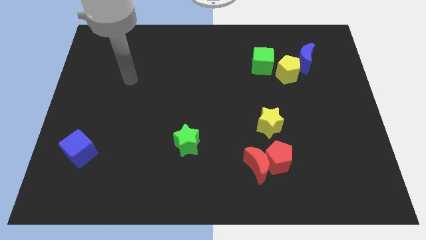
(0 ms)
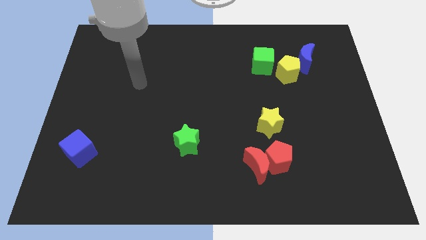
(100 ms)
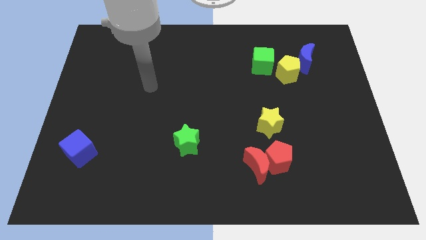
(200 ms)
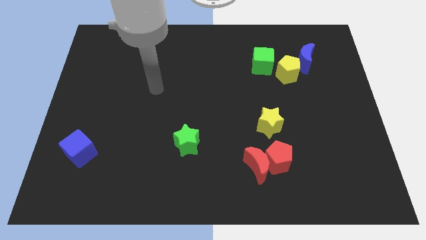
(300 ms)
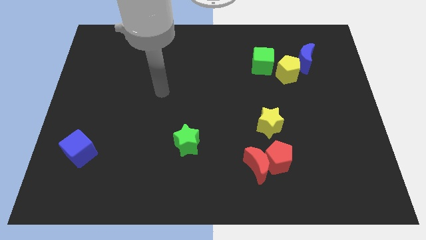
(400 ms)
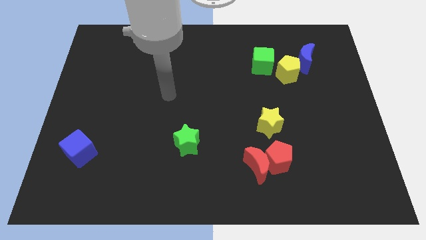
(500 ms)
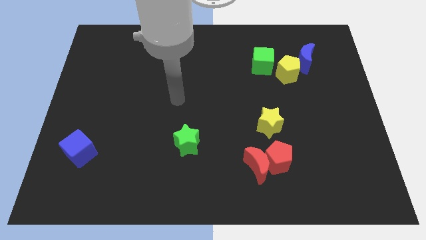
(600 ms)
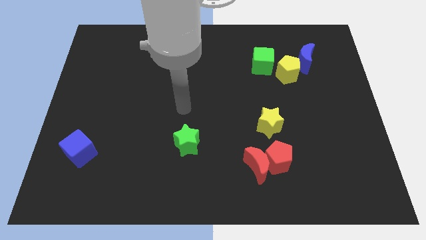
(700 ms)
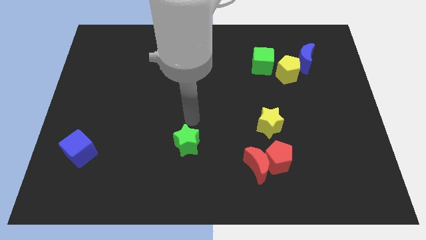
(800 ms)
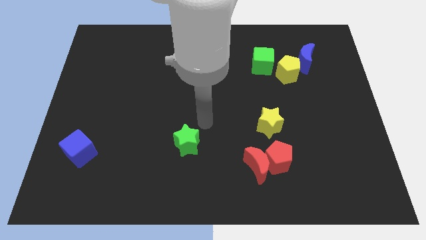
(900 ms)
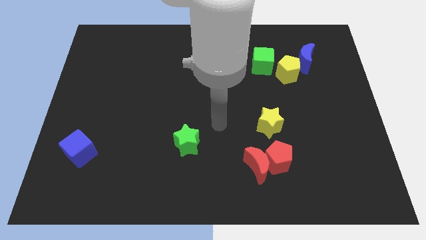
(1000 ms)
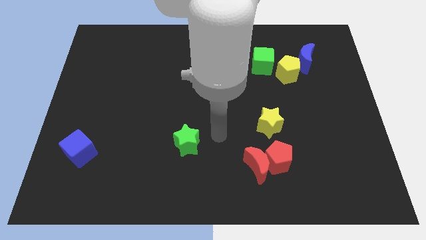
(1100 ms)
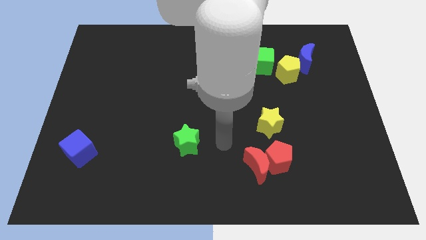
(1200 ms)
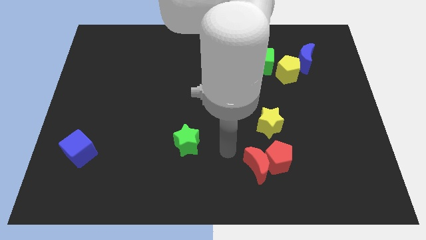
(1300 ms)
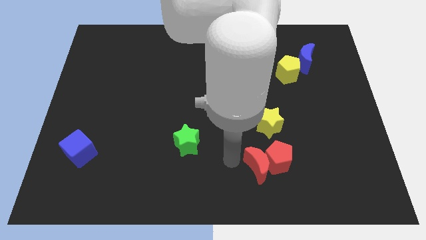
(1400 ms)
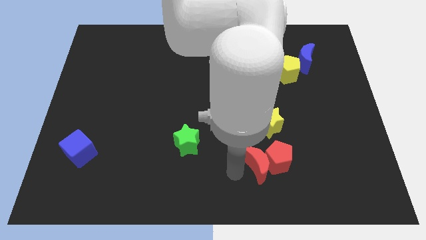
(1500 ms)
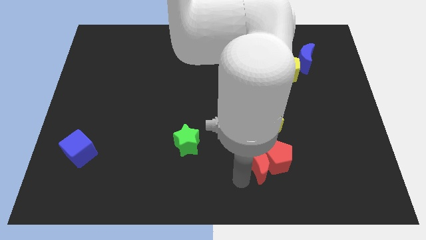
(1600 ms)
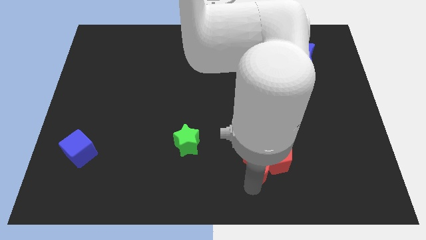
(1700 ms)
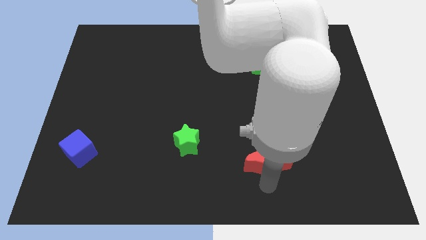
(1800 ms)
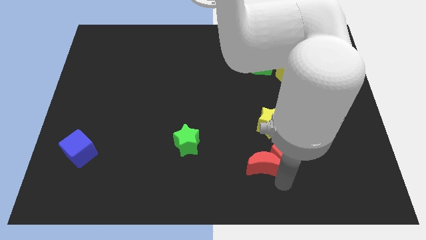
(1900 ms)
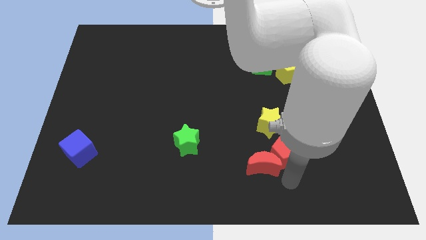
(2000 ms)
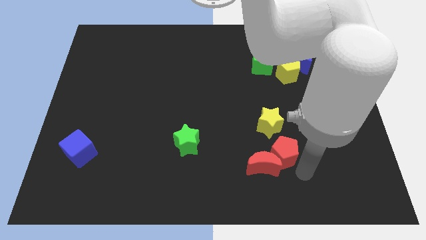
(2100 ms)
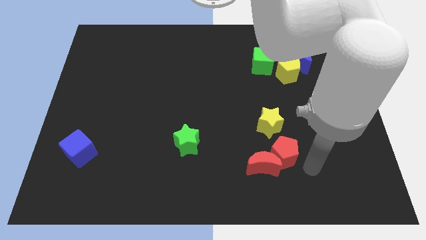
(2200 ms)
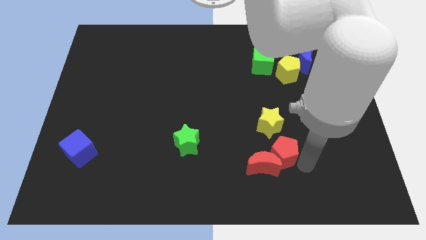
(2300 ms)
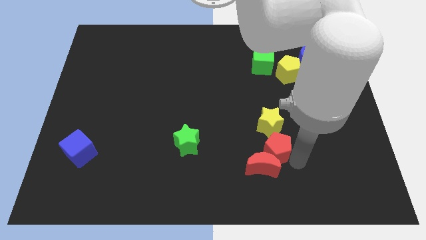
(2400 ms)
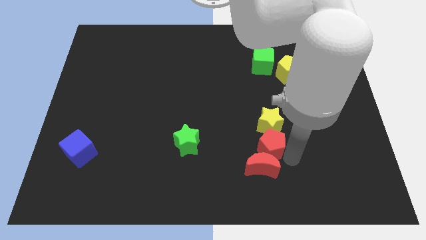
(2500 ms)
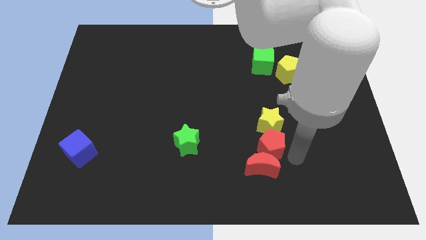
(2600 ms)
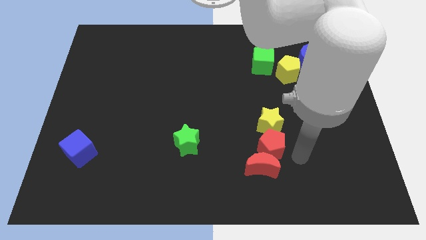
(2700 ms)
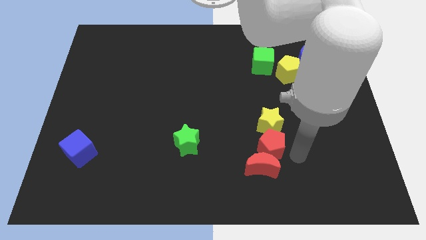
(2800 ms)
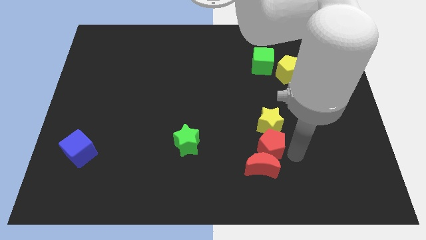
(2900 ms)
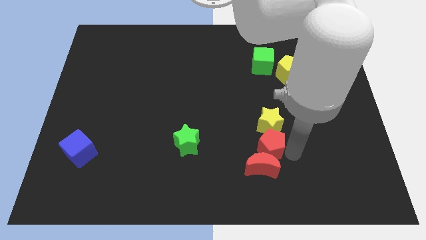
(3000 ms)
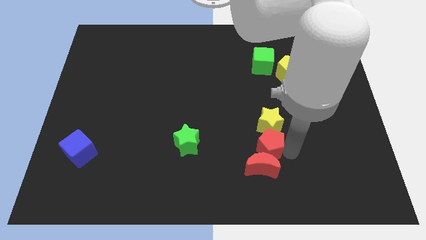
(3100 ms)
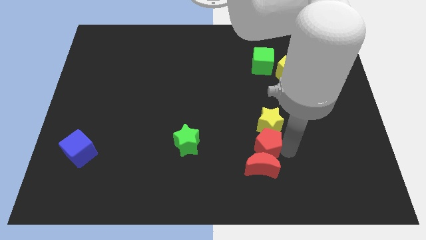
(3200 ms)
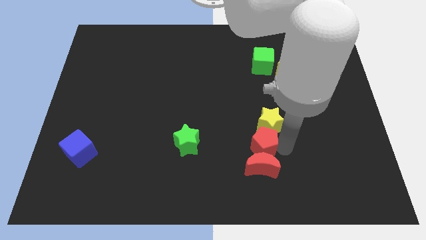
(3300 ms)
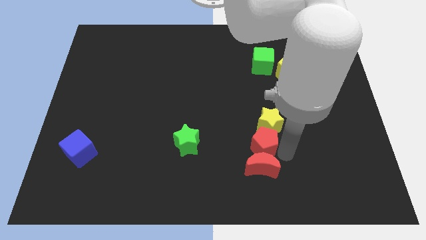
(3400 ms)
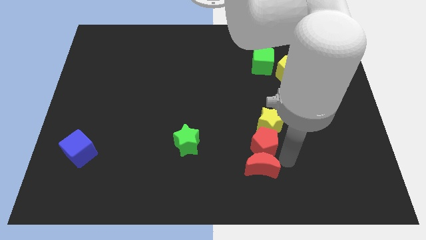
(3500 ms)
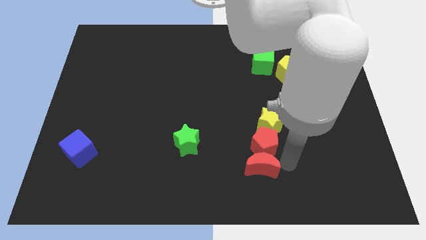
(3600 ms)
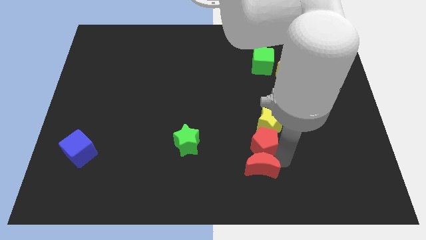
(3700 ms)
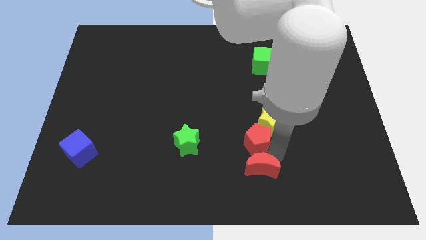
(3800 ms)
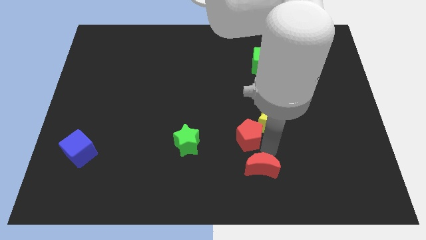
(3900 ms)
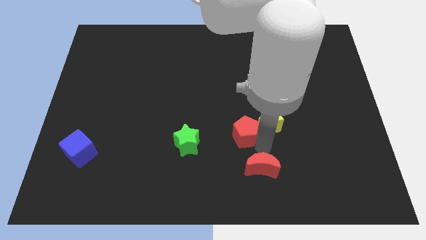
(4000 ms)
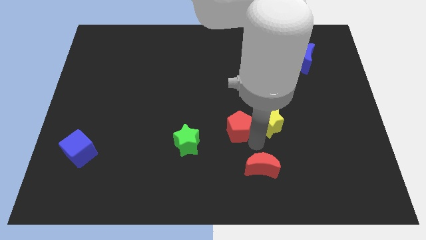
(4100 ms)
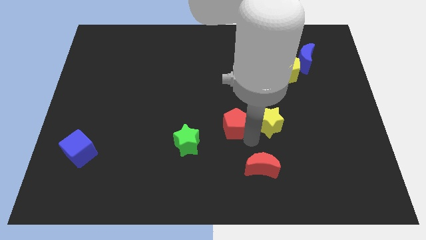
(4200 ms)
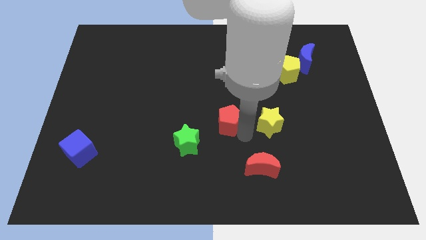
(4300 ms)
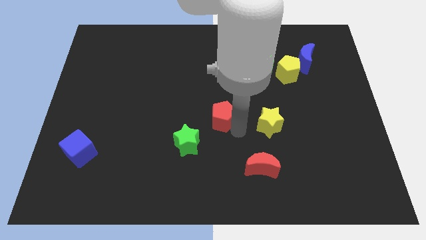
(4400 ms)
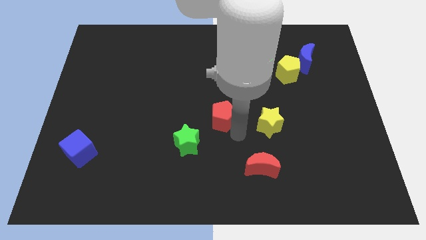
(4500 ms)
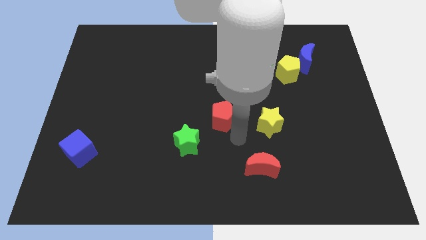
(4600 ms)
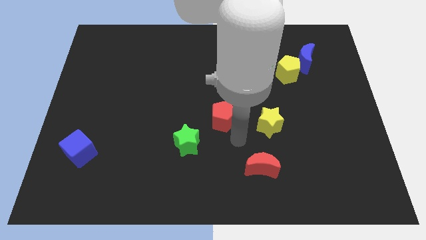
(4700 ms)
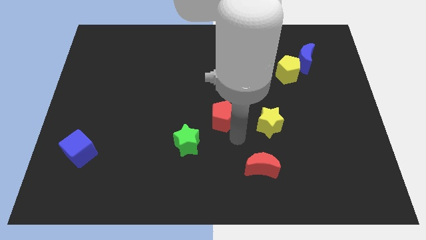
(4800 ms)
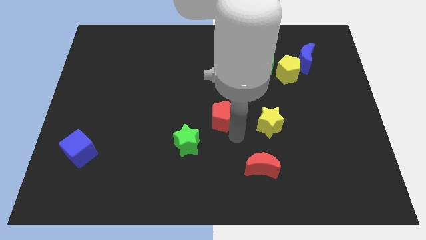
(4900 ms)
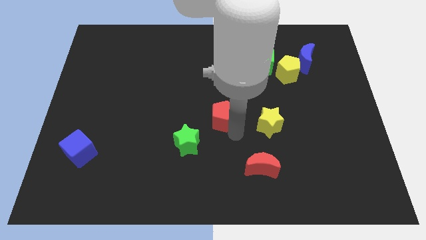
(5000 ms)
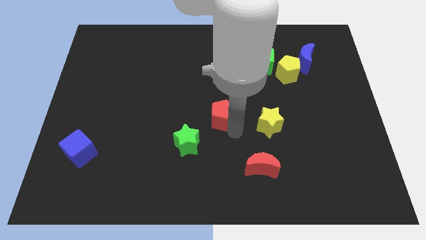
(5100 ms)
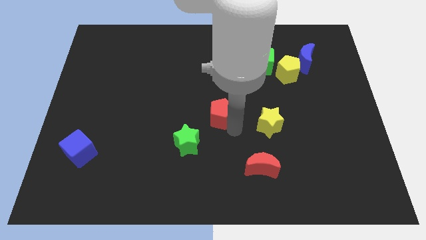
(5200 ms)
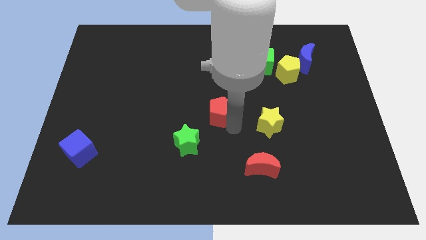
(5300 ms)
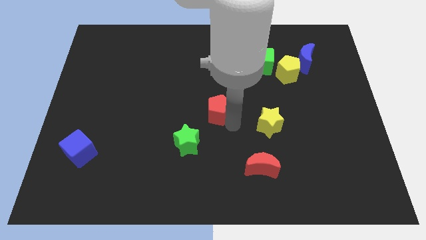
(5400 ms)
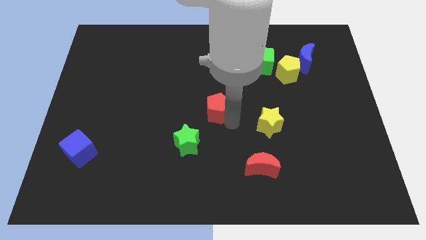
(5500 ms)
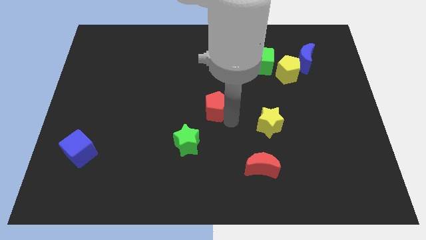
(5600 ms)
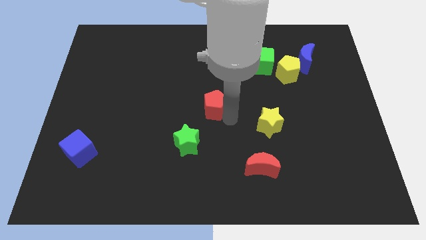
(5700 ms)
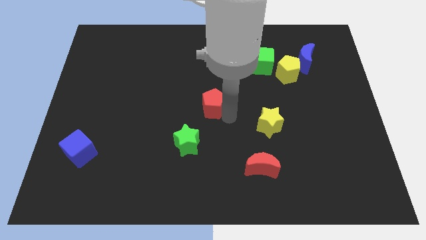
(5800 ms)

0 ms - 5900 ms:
move the red pentagon up and left

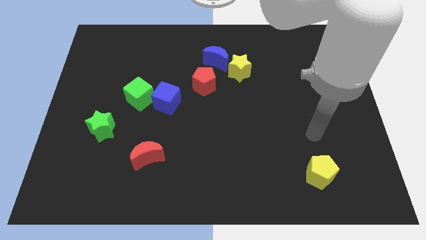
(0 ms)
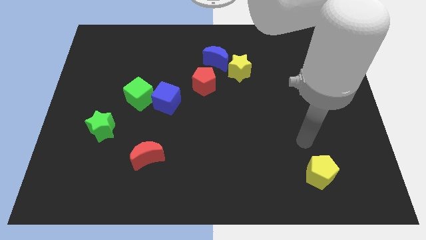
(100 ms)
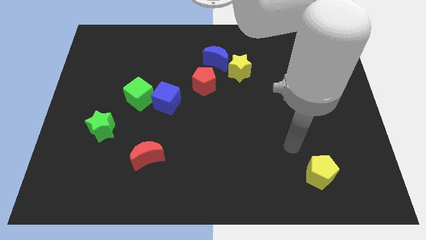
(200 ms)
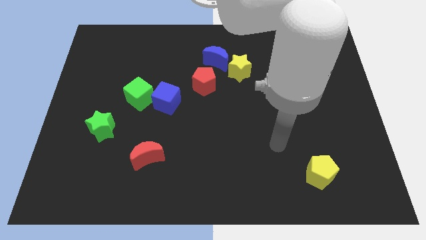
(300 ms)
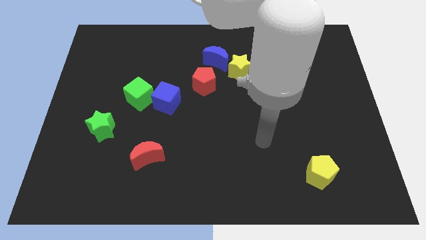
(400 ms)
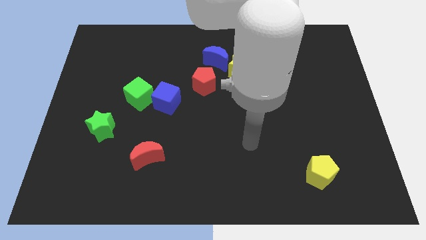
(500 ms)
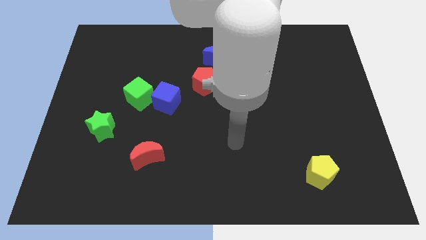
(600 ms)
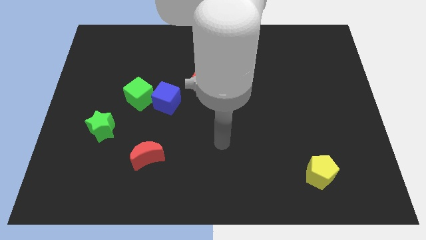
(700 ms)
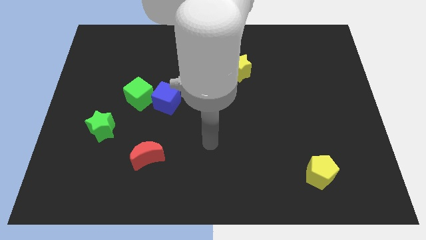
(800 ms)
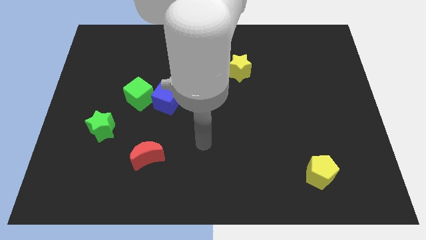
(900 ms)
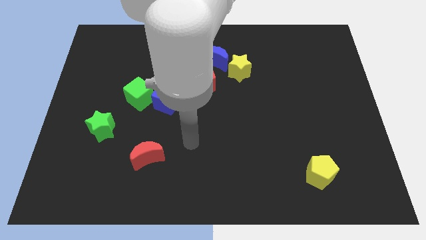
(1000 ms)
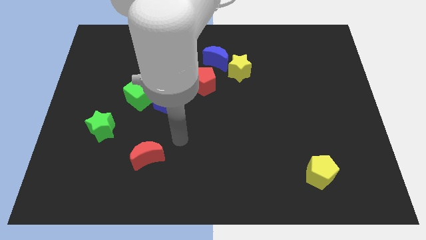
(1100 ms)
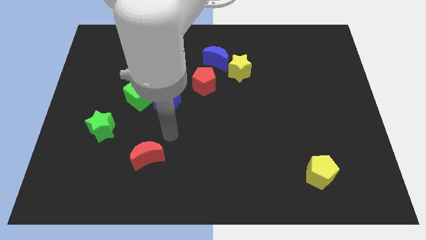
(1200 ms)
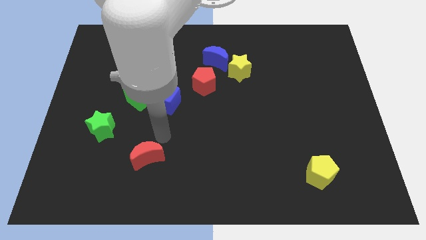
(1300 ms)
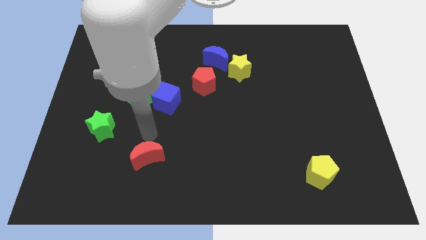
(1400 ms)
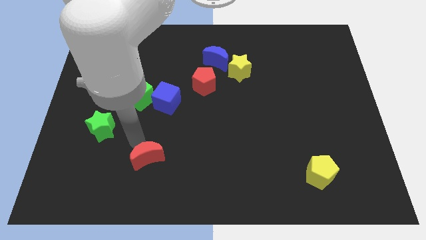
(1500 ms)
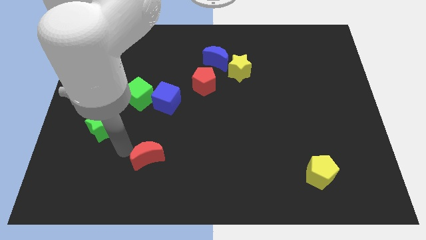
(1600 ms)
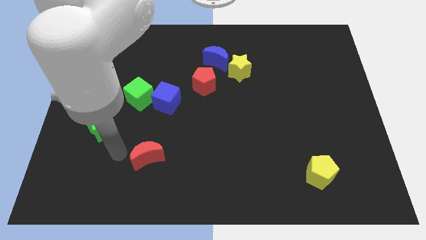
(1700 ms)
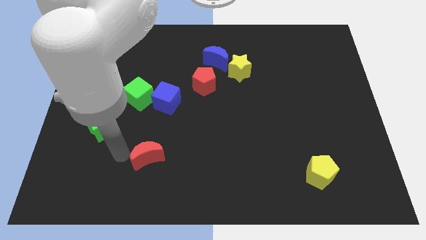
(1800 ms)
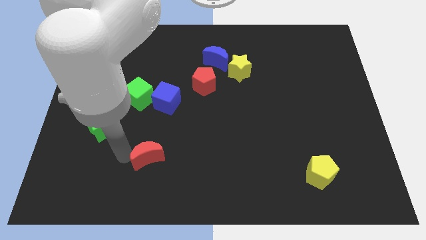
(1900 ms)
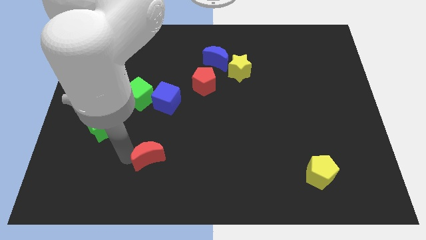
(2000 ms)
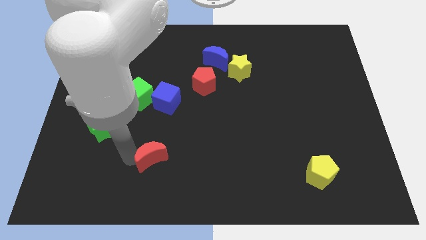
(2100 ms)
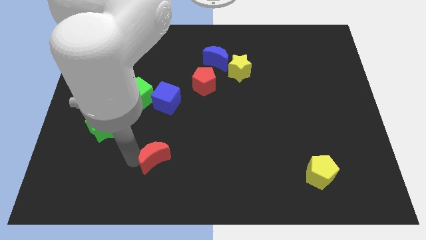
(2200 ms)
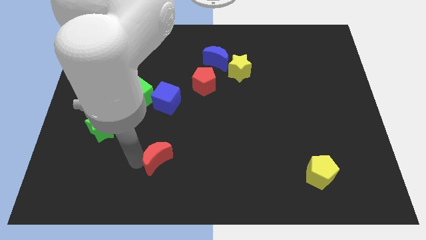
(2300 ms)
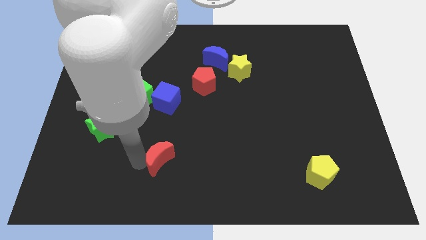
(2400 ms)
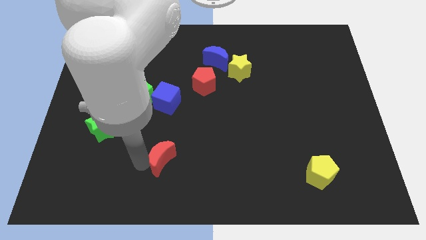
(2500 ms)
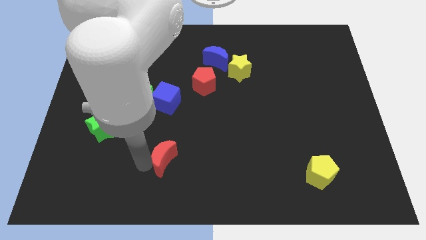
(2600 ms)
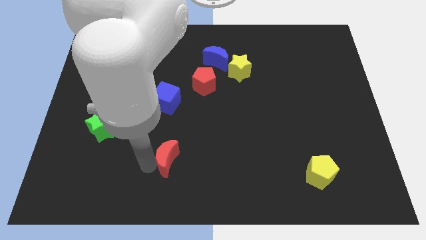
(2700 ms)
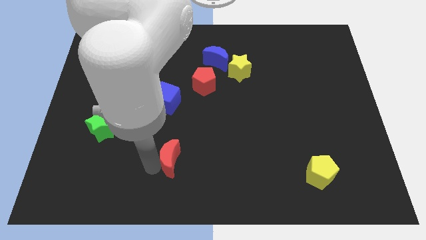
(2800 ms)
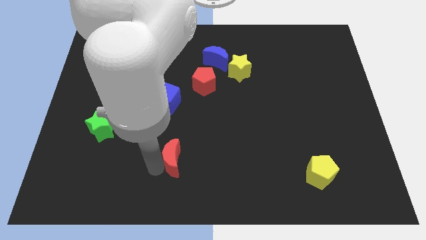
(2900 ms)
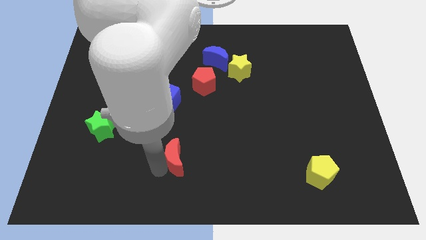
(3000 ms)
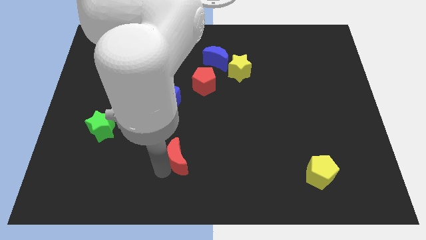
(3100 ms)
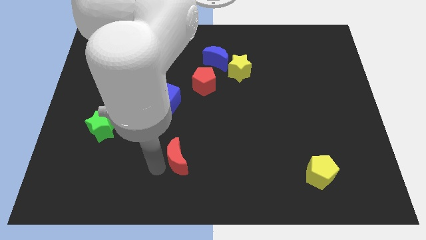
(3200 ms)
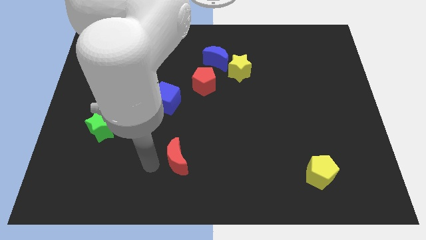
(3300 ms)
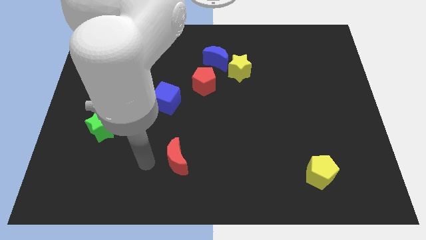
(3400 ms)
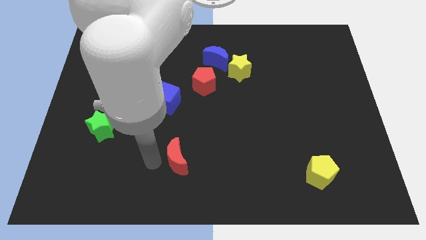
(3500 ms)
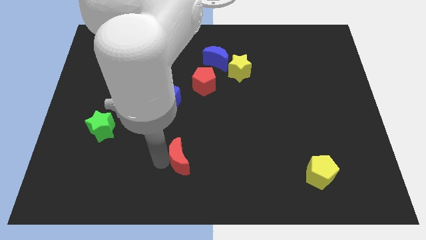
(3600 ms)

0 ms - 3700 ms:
move the red moon right a little
